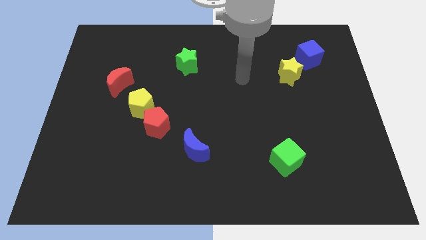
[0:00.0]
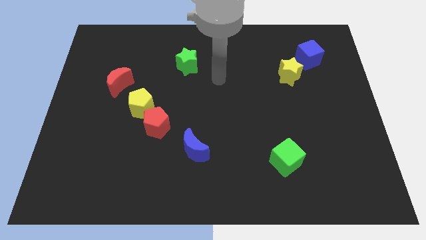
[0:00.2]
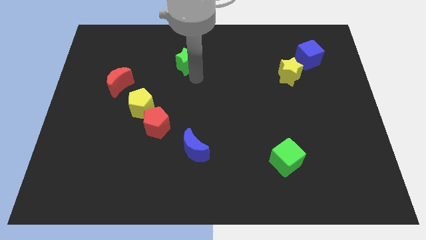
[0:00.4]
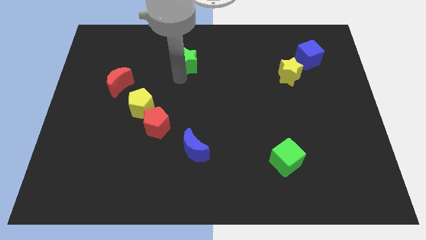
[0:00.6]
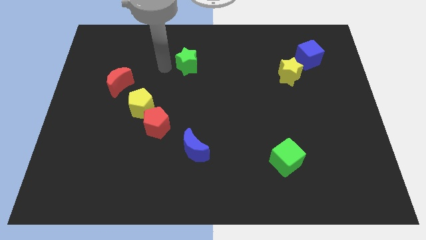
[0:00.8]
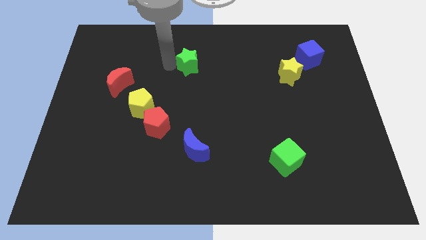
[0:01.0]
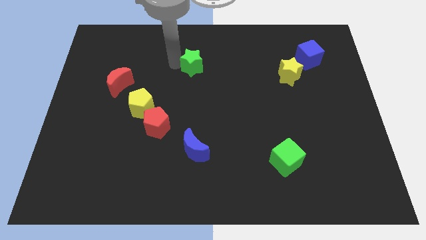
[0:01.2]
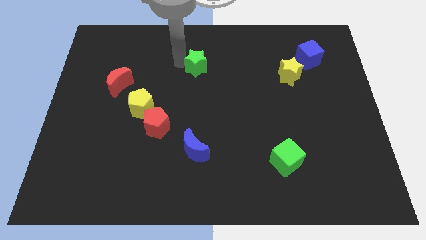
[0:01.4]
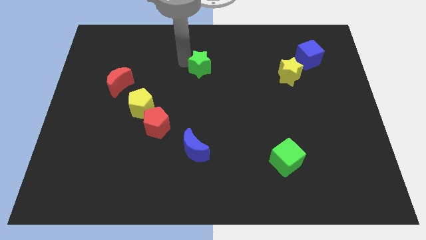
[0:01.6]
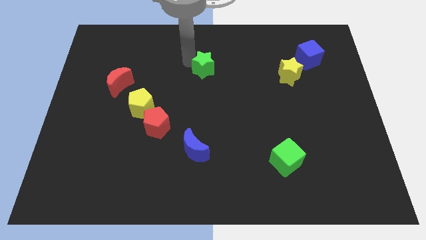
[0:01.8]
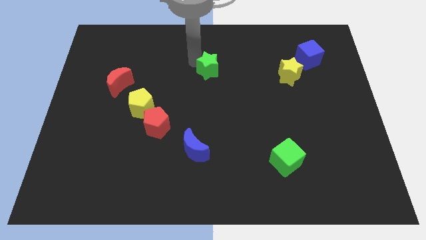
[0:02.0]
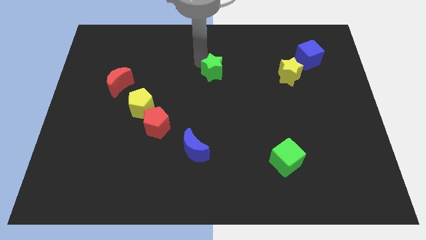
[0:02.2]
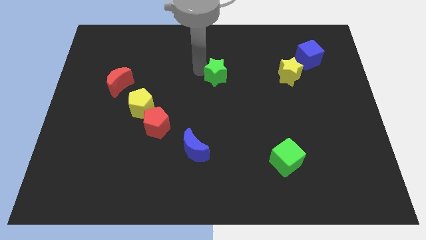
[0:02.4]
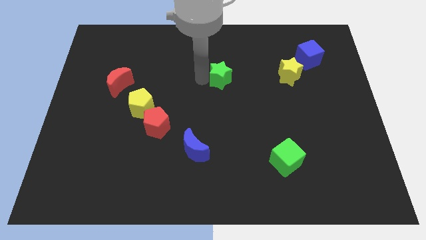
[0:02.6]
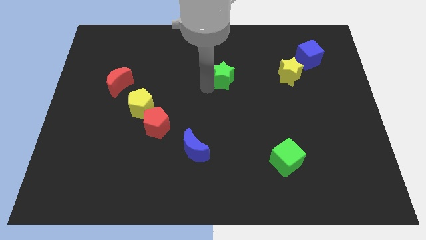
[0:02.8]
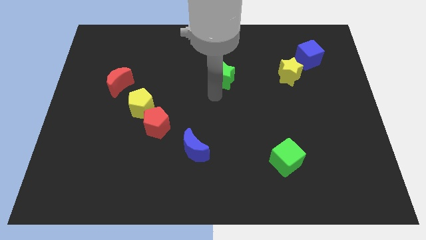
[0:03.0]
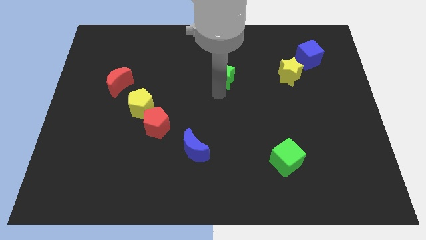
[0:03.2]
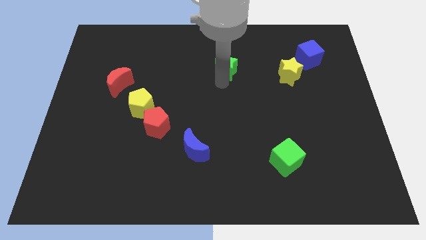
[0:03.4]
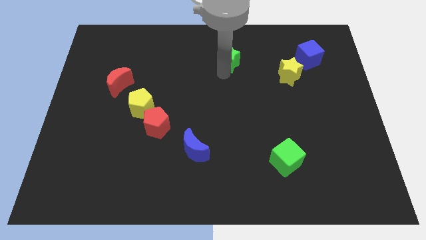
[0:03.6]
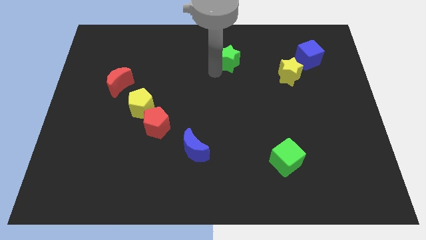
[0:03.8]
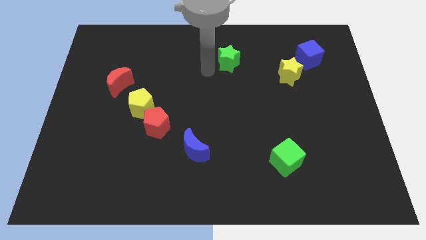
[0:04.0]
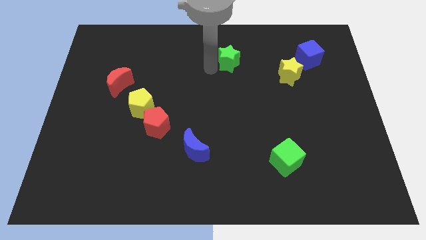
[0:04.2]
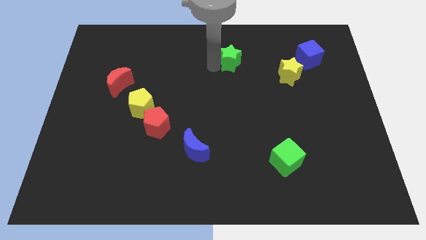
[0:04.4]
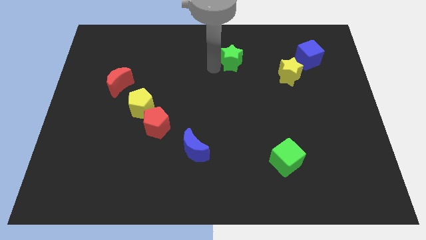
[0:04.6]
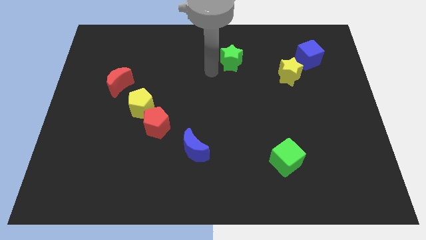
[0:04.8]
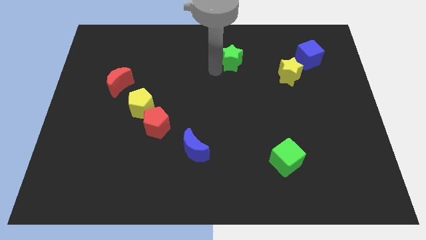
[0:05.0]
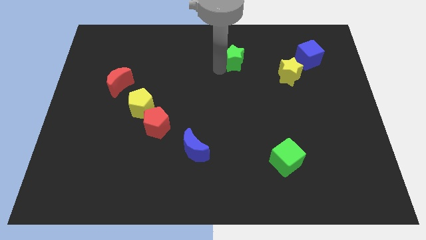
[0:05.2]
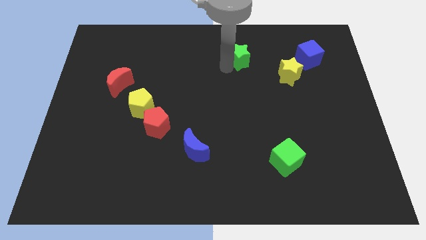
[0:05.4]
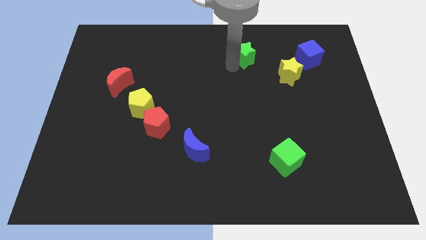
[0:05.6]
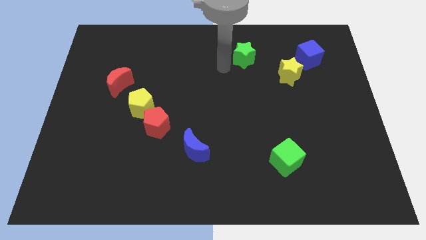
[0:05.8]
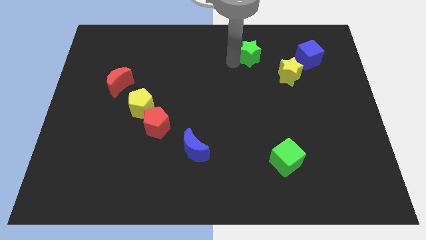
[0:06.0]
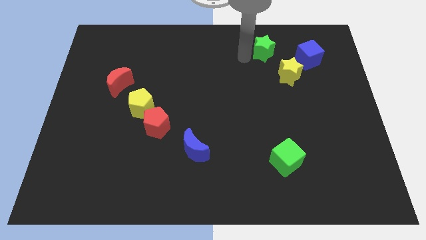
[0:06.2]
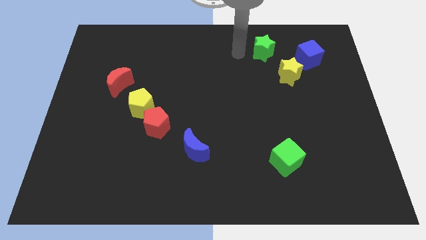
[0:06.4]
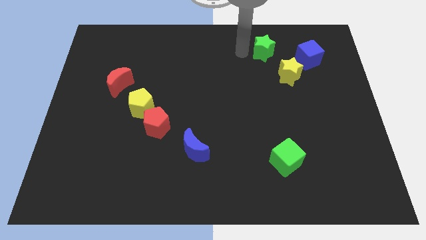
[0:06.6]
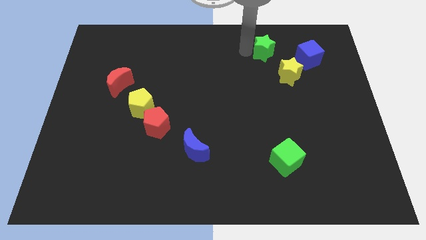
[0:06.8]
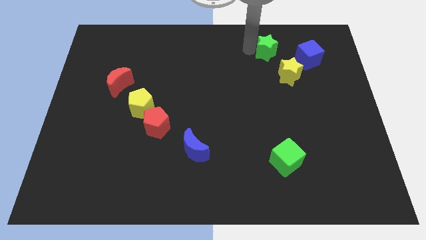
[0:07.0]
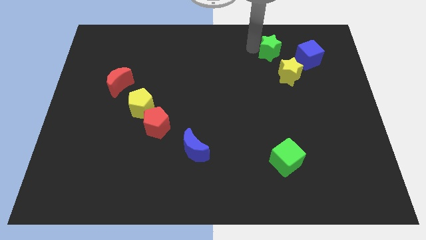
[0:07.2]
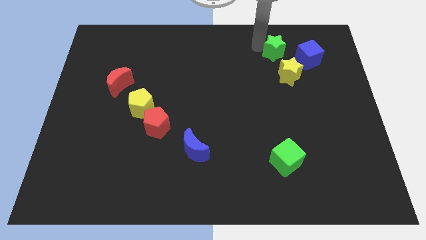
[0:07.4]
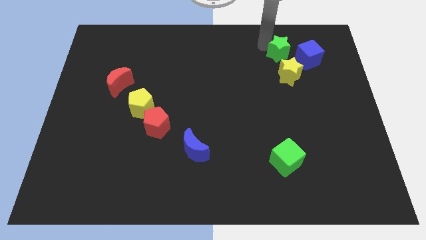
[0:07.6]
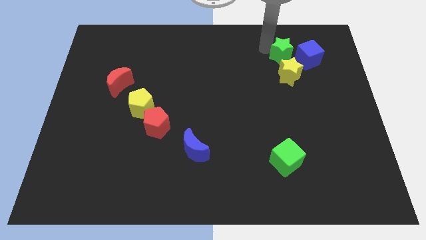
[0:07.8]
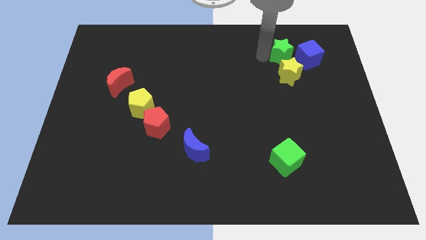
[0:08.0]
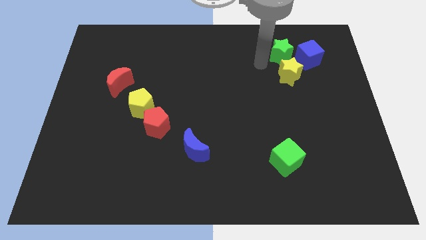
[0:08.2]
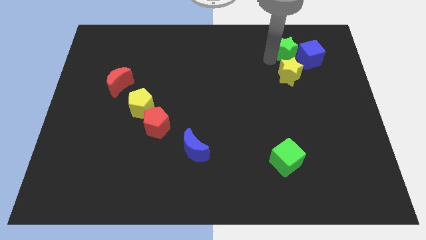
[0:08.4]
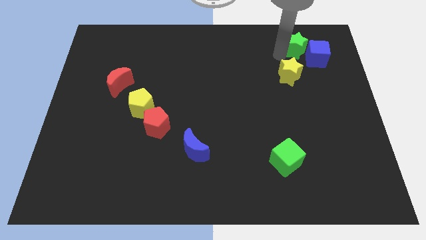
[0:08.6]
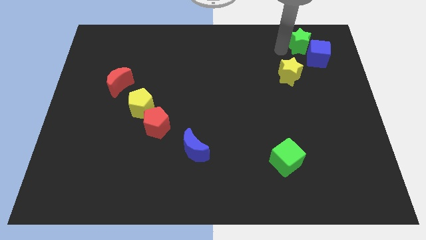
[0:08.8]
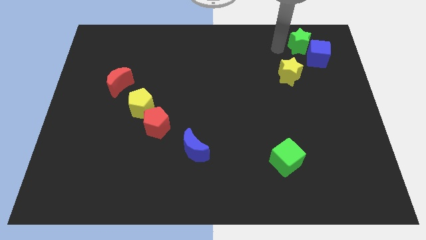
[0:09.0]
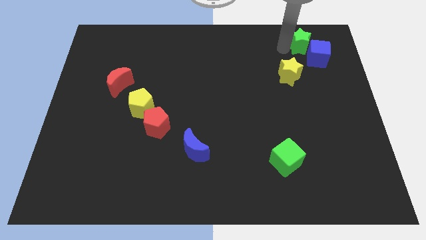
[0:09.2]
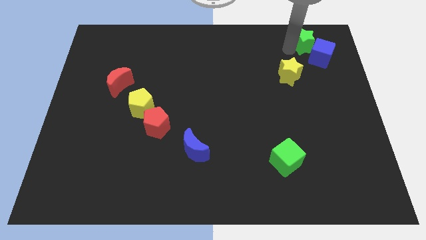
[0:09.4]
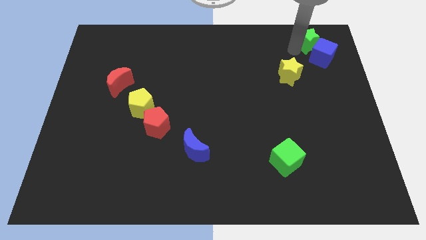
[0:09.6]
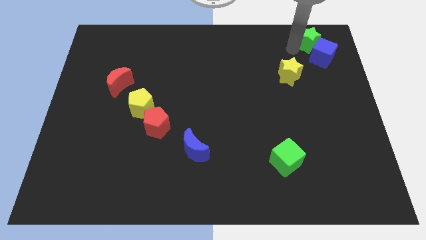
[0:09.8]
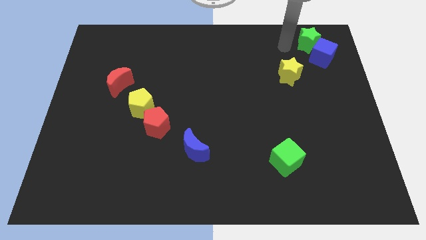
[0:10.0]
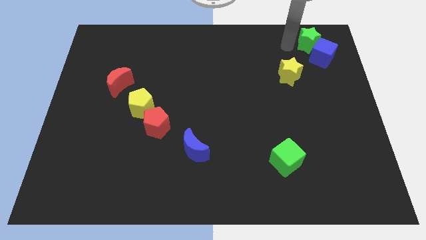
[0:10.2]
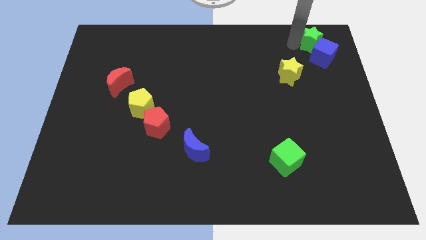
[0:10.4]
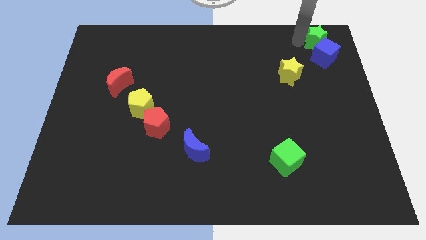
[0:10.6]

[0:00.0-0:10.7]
slide the green star to the top right corner

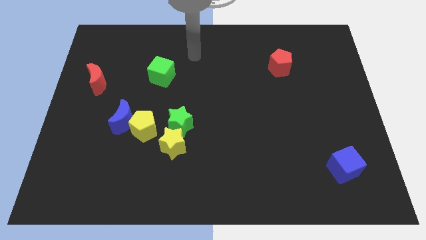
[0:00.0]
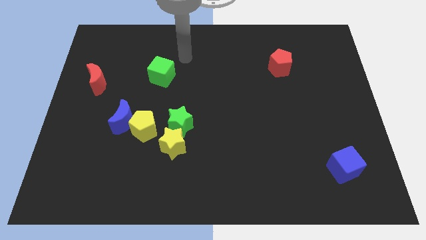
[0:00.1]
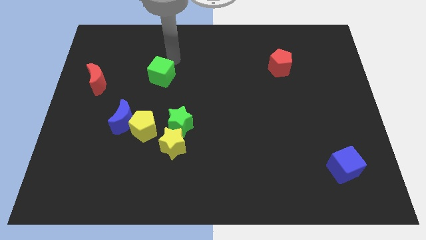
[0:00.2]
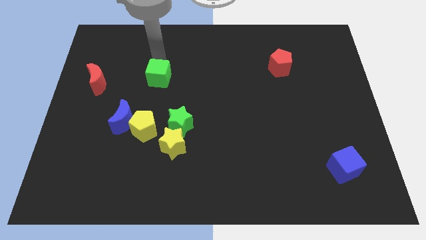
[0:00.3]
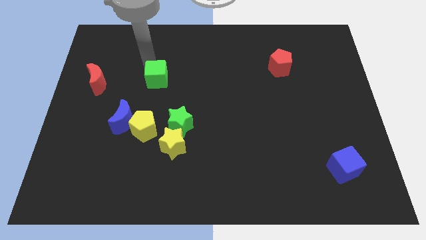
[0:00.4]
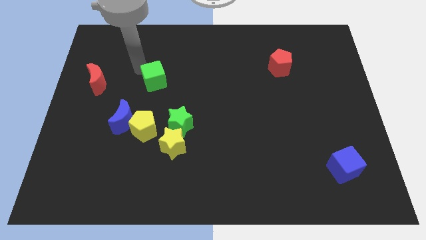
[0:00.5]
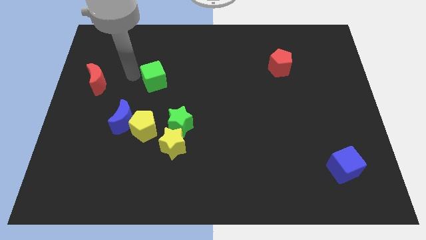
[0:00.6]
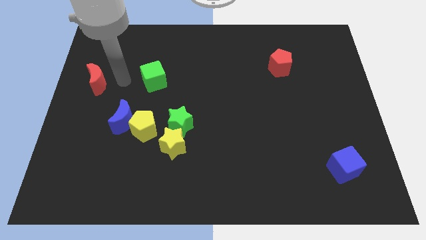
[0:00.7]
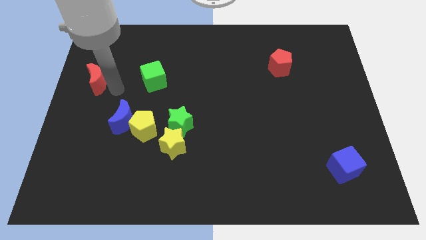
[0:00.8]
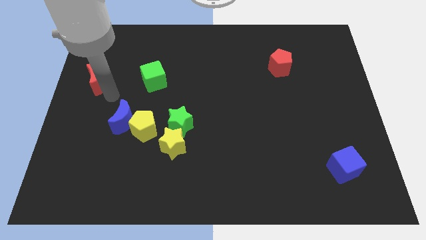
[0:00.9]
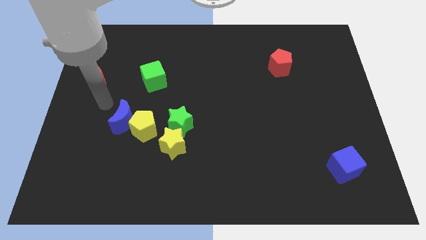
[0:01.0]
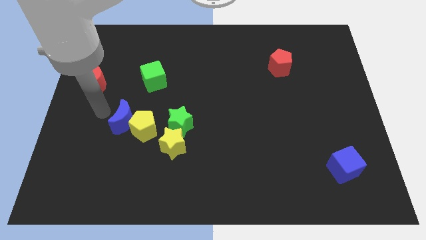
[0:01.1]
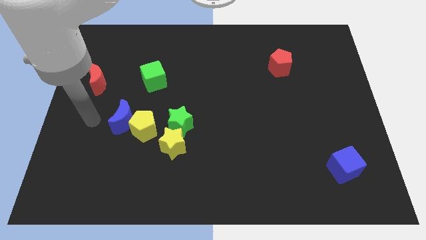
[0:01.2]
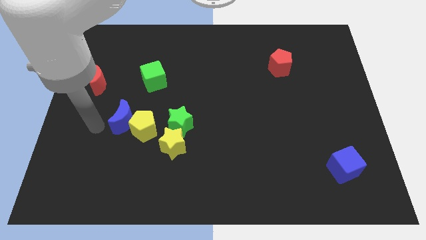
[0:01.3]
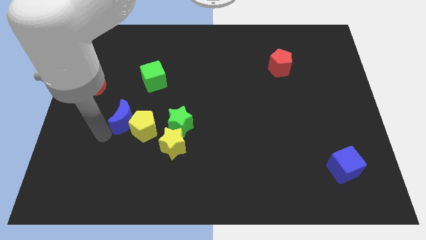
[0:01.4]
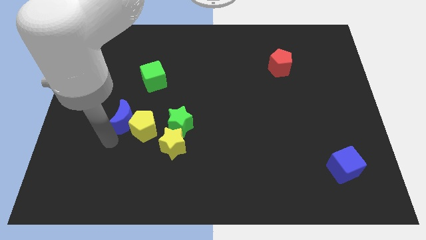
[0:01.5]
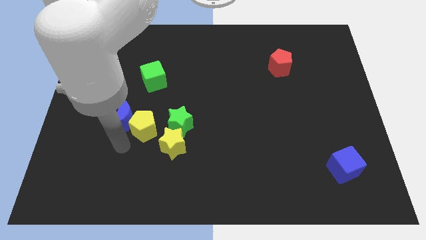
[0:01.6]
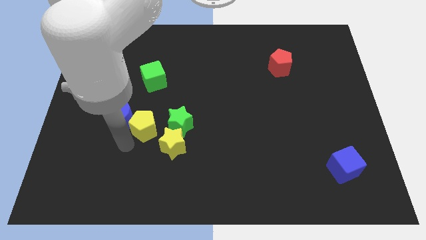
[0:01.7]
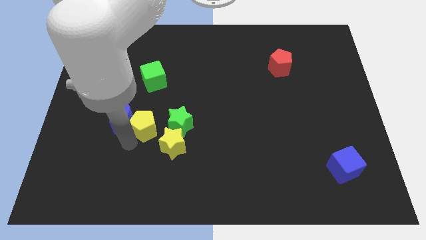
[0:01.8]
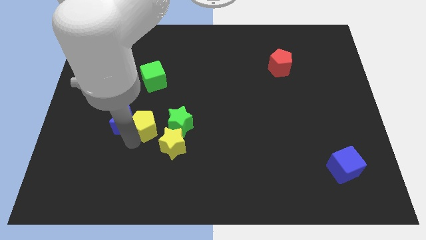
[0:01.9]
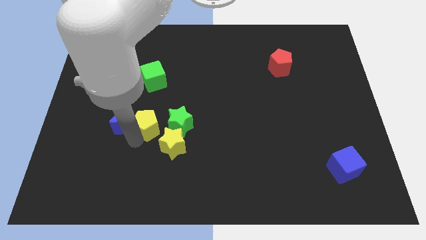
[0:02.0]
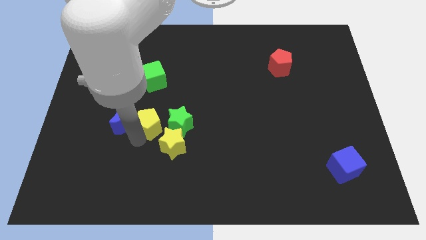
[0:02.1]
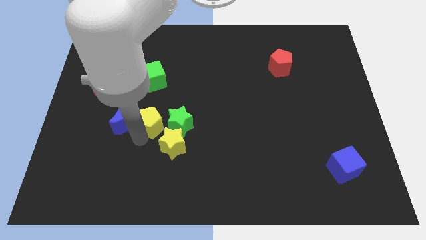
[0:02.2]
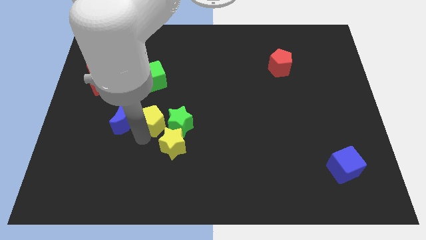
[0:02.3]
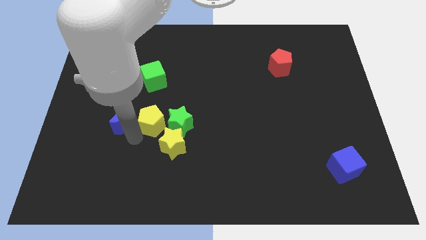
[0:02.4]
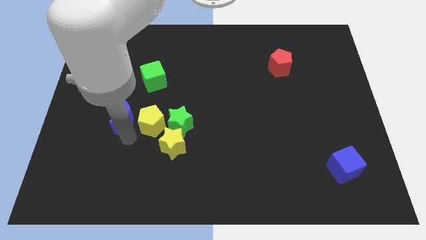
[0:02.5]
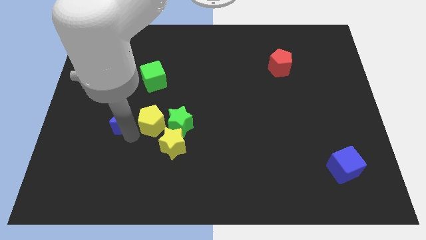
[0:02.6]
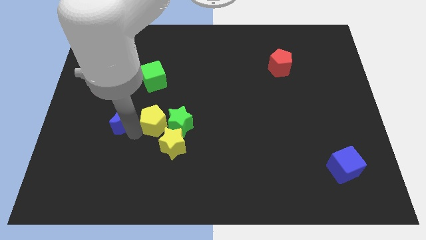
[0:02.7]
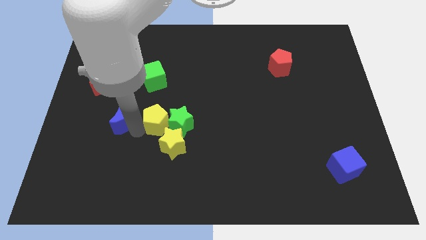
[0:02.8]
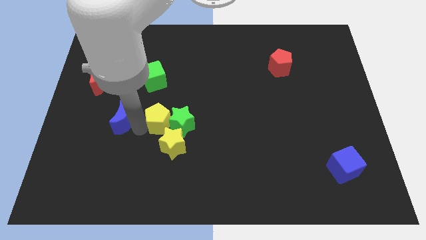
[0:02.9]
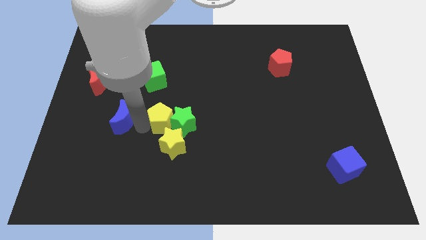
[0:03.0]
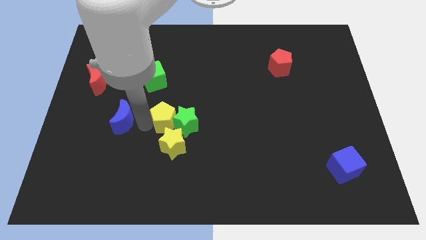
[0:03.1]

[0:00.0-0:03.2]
slide the yellow pentagon to the center
